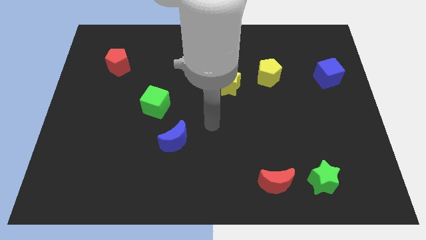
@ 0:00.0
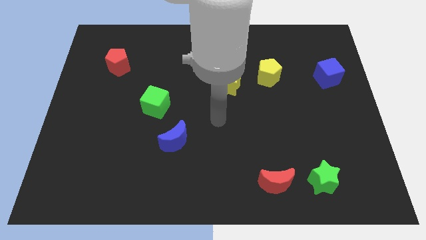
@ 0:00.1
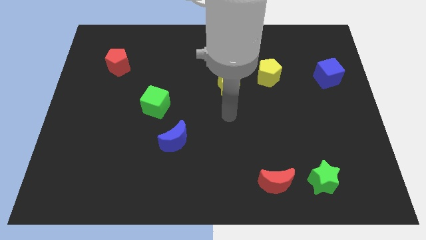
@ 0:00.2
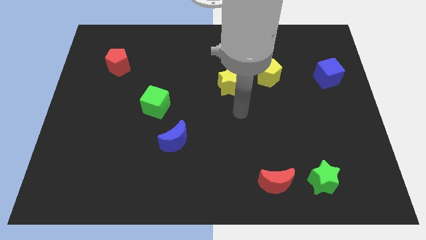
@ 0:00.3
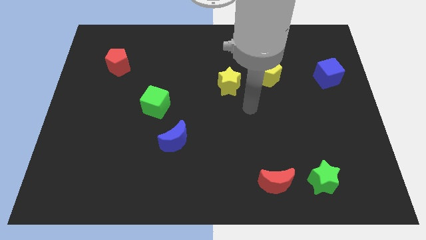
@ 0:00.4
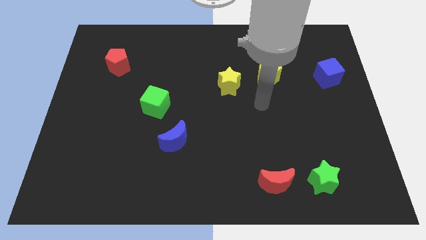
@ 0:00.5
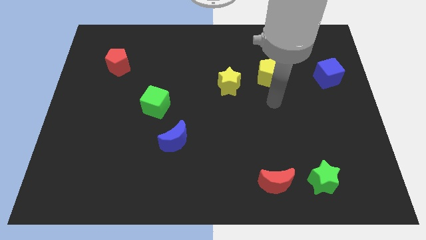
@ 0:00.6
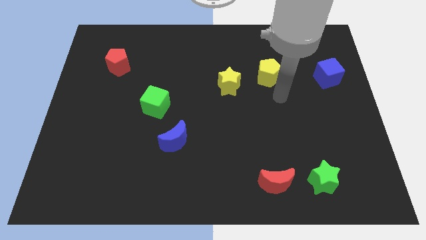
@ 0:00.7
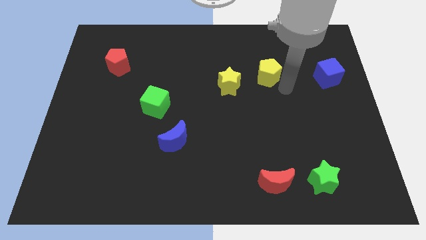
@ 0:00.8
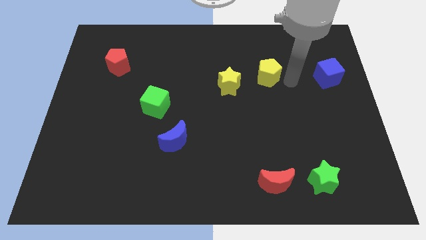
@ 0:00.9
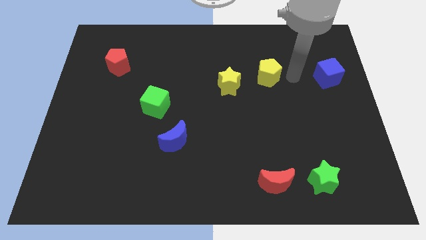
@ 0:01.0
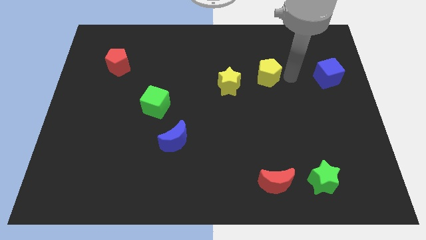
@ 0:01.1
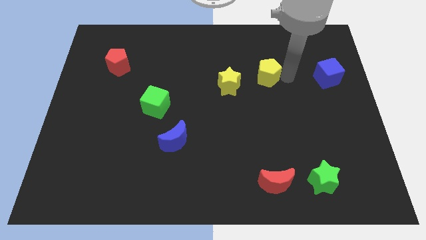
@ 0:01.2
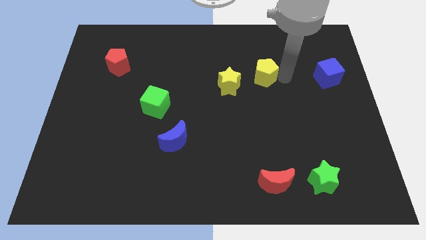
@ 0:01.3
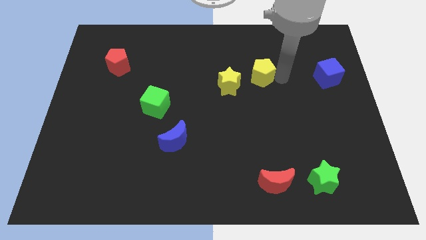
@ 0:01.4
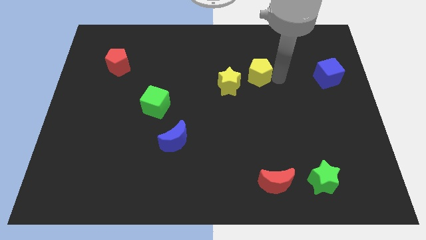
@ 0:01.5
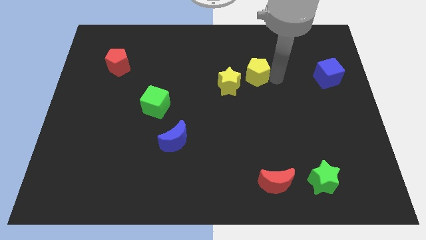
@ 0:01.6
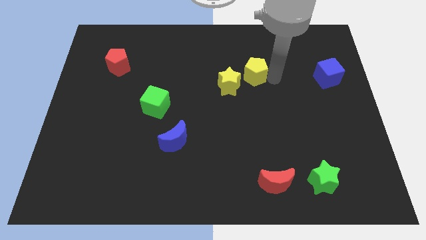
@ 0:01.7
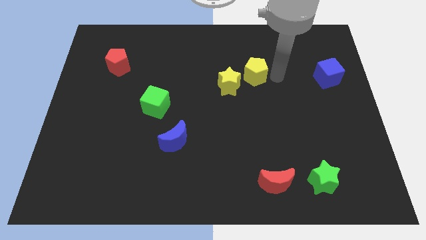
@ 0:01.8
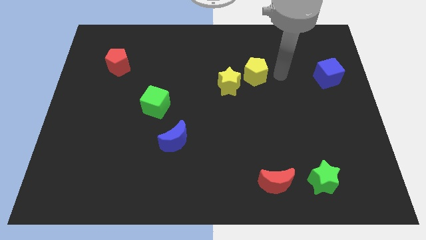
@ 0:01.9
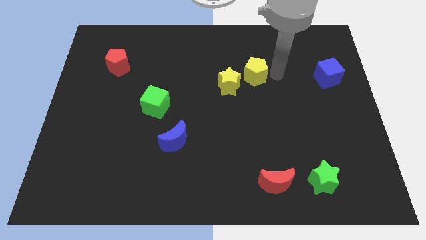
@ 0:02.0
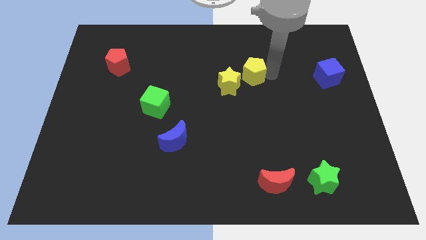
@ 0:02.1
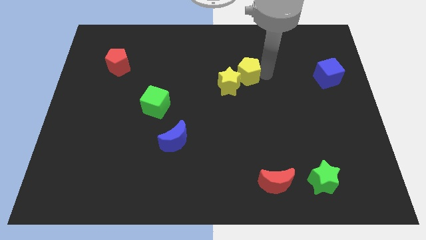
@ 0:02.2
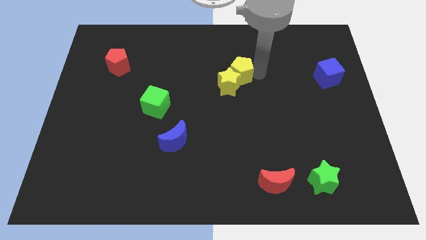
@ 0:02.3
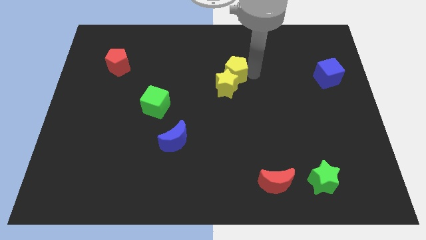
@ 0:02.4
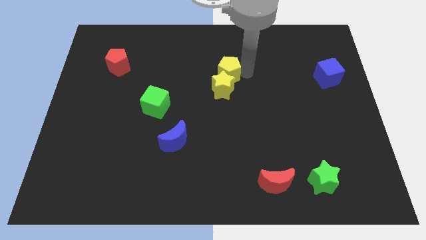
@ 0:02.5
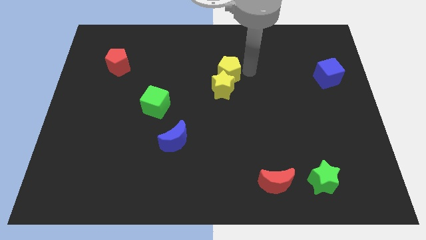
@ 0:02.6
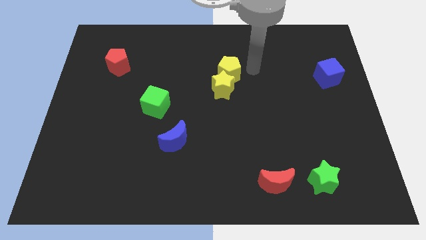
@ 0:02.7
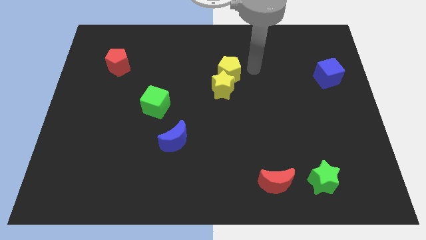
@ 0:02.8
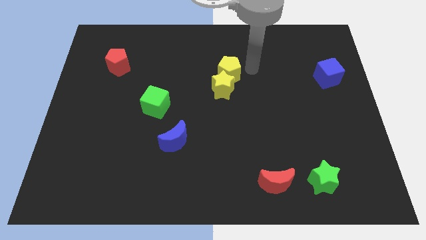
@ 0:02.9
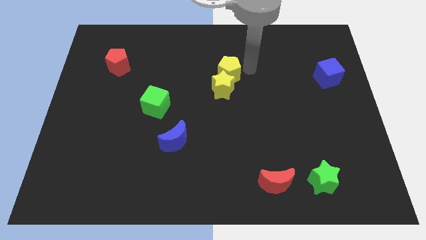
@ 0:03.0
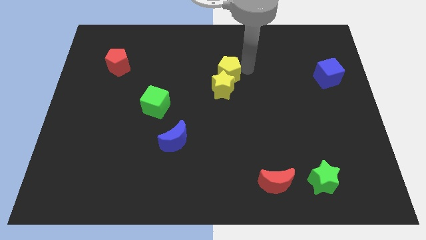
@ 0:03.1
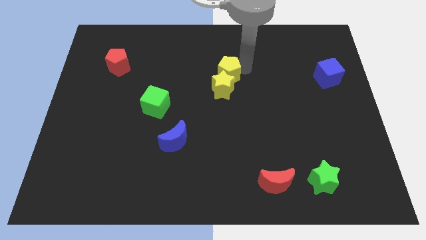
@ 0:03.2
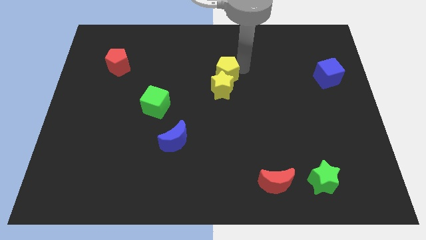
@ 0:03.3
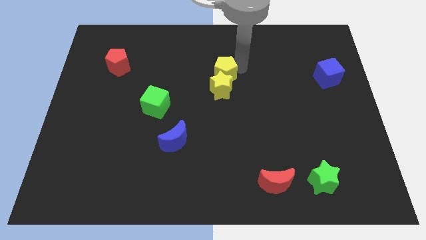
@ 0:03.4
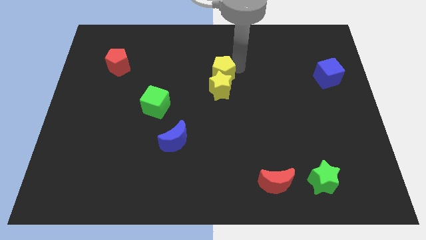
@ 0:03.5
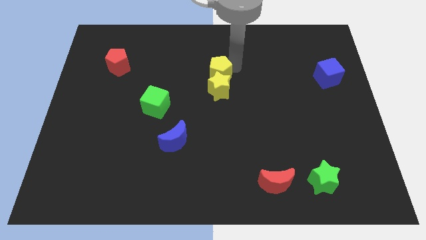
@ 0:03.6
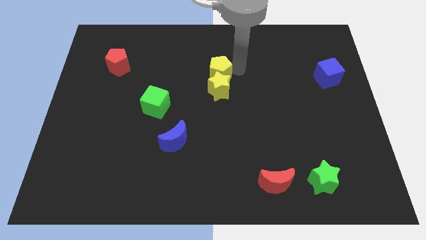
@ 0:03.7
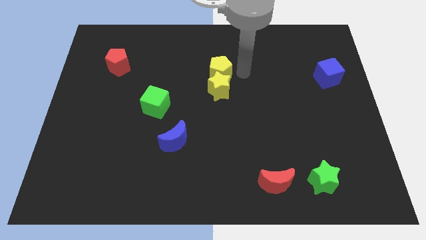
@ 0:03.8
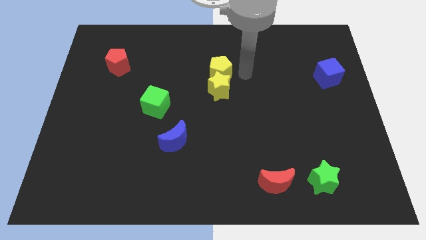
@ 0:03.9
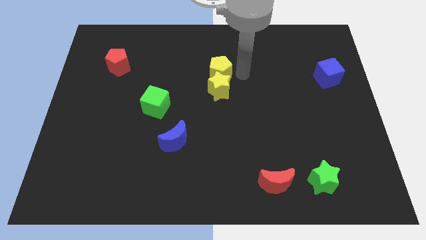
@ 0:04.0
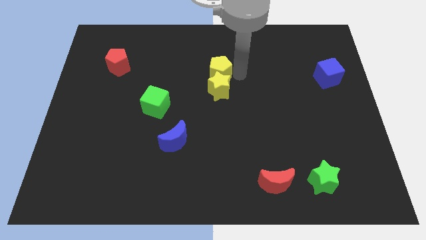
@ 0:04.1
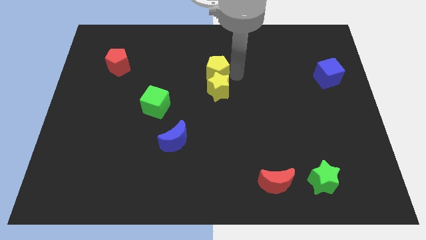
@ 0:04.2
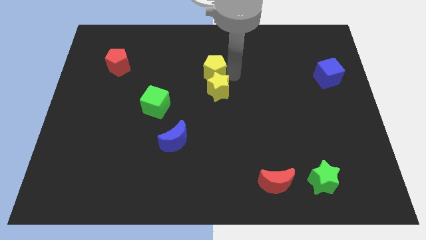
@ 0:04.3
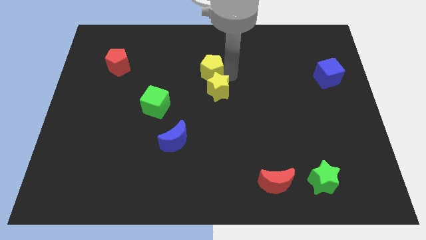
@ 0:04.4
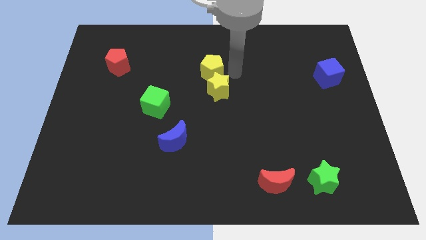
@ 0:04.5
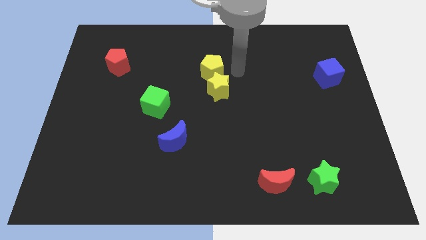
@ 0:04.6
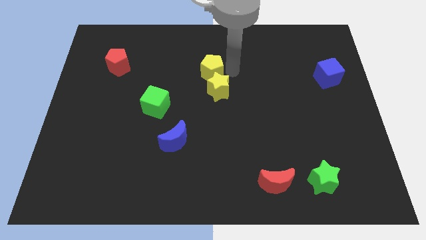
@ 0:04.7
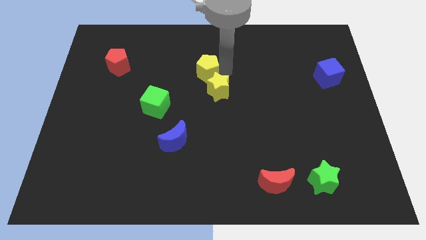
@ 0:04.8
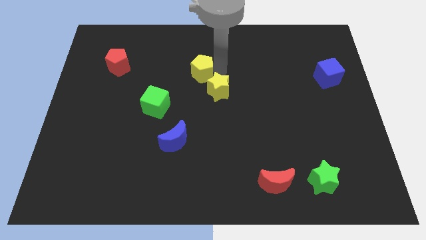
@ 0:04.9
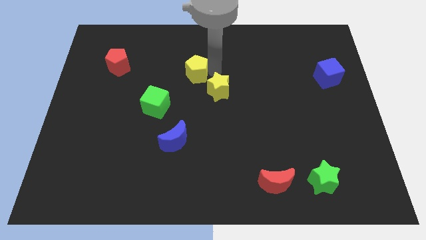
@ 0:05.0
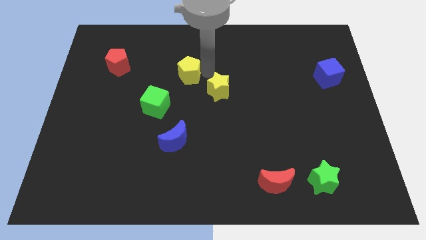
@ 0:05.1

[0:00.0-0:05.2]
push the yellow pentagon left

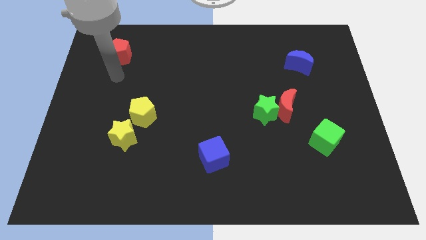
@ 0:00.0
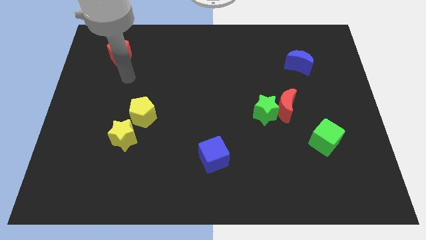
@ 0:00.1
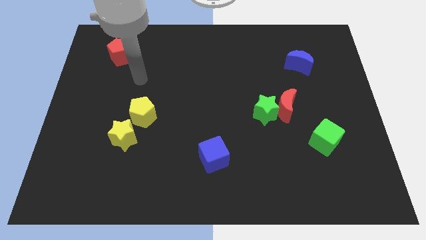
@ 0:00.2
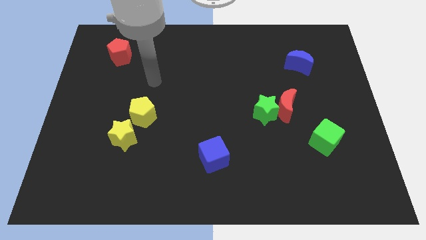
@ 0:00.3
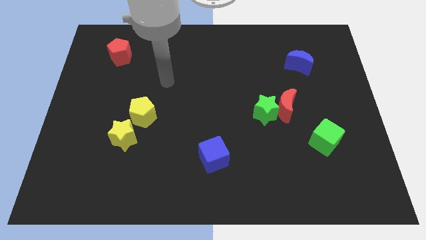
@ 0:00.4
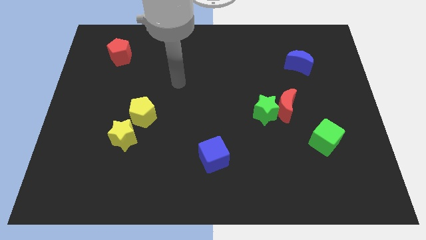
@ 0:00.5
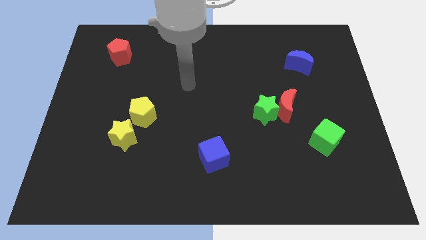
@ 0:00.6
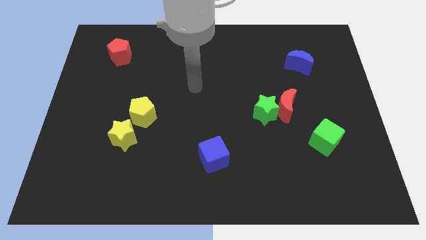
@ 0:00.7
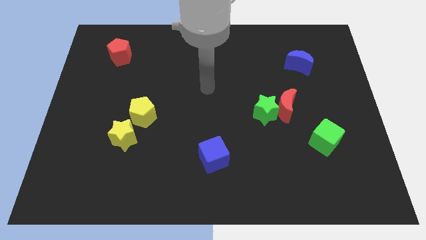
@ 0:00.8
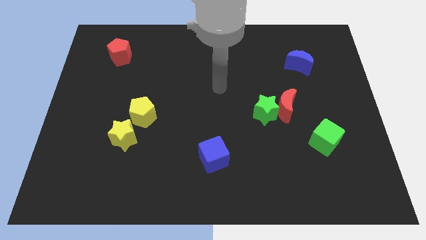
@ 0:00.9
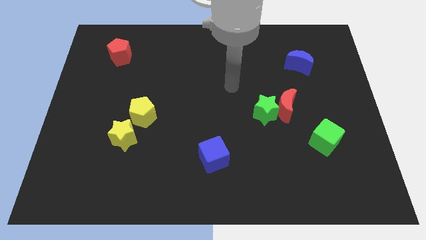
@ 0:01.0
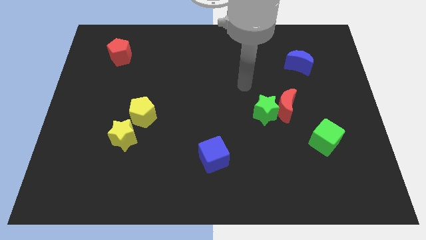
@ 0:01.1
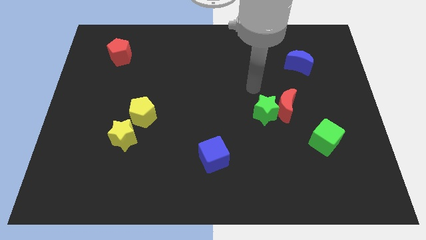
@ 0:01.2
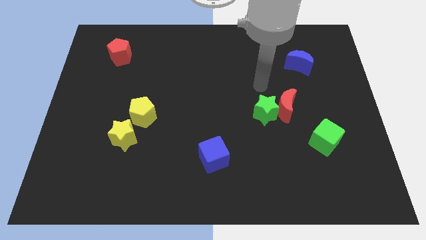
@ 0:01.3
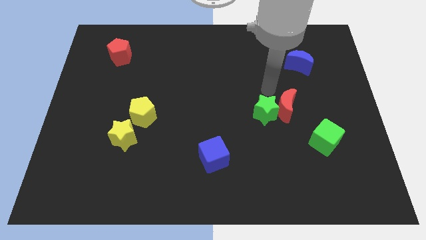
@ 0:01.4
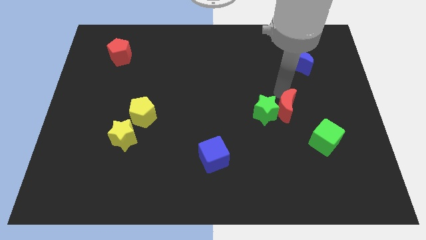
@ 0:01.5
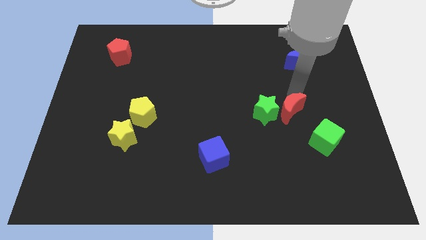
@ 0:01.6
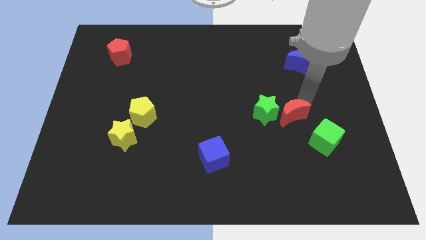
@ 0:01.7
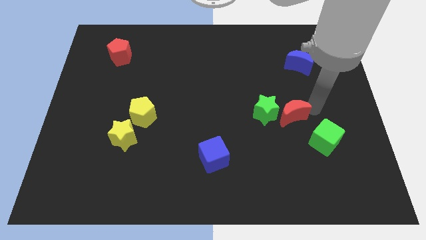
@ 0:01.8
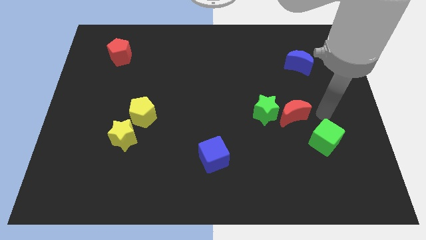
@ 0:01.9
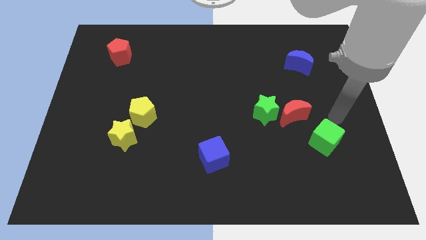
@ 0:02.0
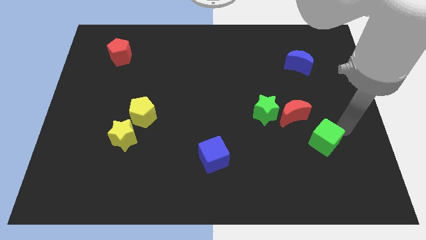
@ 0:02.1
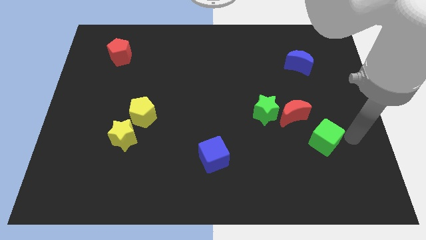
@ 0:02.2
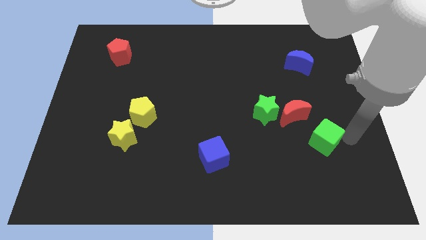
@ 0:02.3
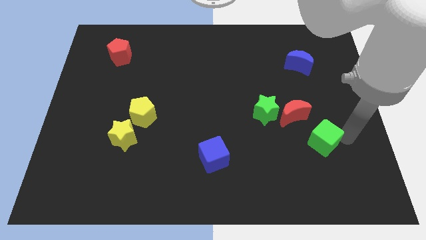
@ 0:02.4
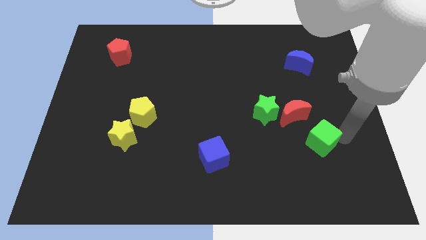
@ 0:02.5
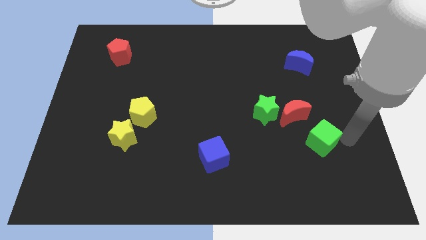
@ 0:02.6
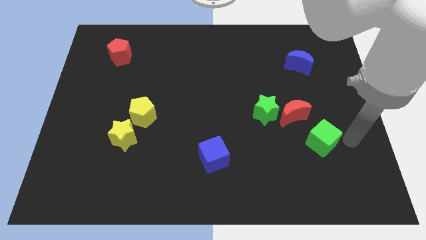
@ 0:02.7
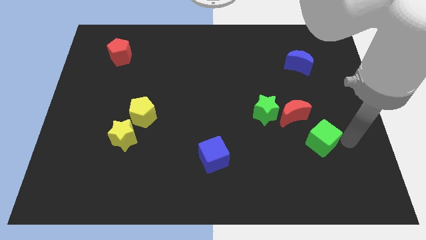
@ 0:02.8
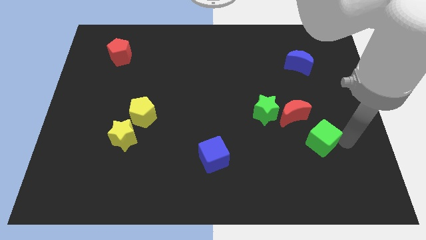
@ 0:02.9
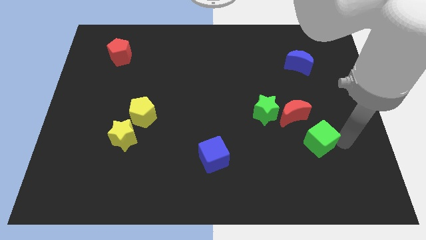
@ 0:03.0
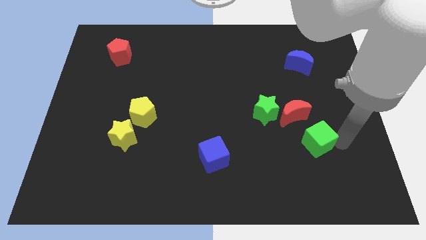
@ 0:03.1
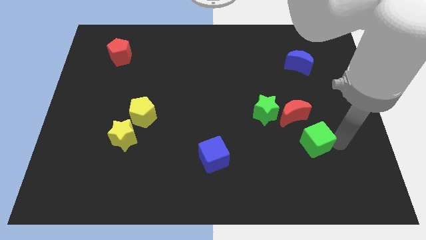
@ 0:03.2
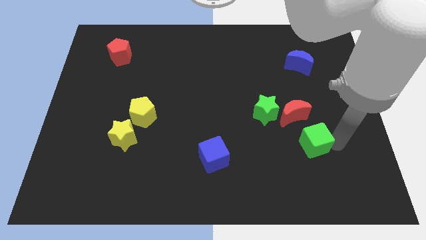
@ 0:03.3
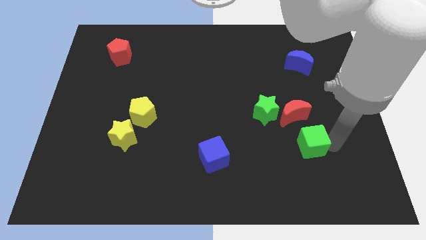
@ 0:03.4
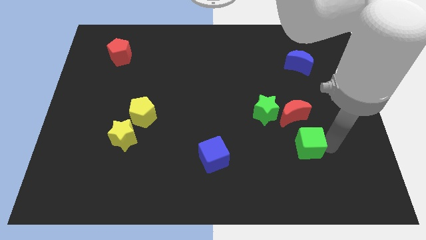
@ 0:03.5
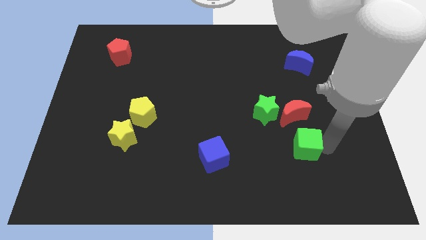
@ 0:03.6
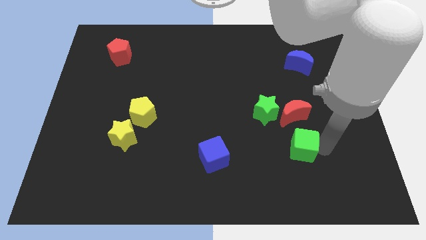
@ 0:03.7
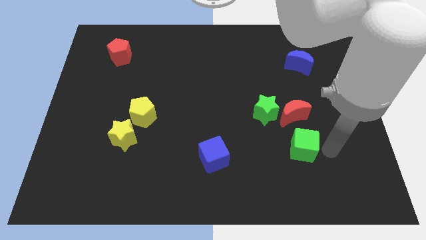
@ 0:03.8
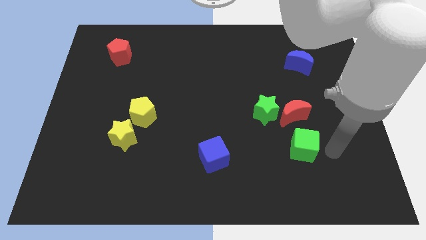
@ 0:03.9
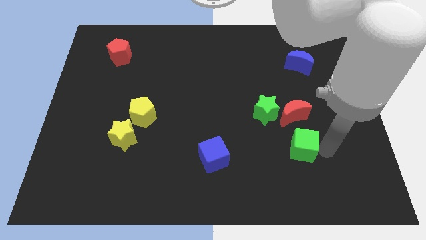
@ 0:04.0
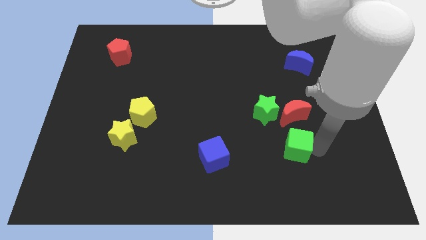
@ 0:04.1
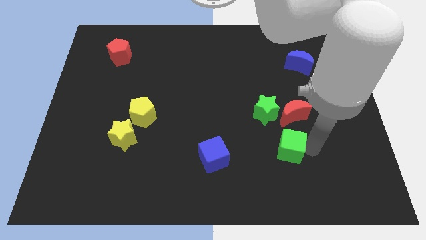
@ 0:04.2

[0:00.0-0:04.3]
slightly push the green cube to the left
